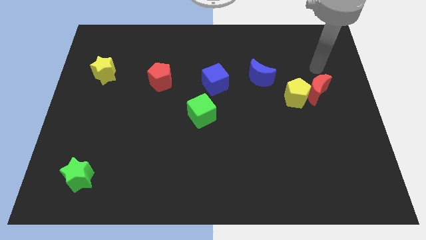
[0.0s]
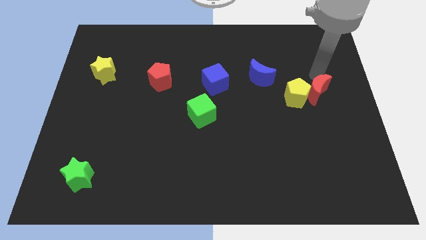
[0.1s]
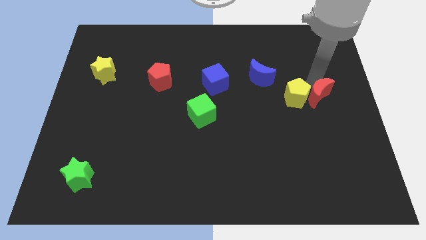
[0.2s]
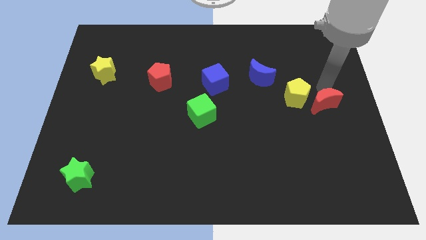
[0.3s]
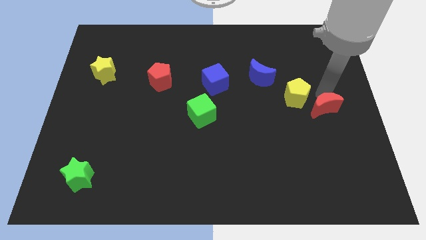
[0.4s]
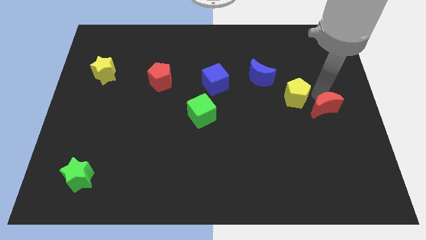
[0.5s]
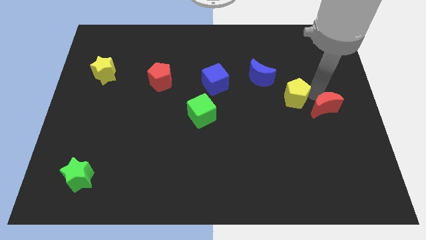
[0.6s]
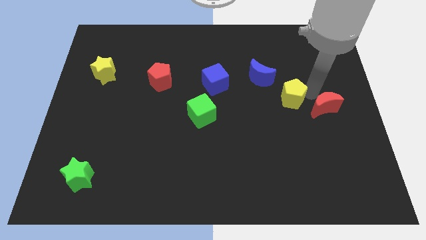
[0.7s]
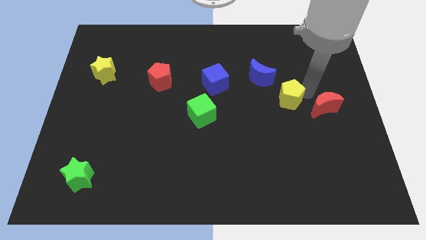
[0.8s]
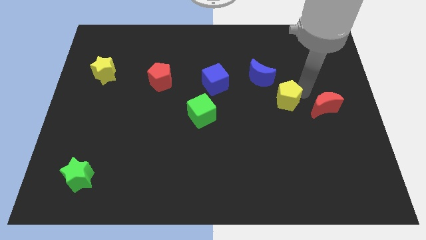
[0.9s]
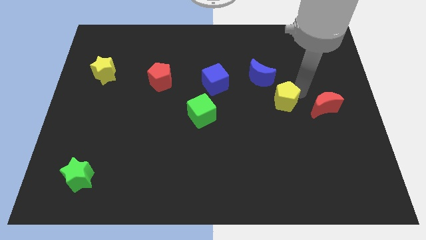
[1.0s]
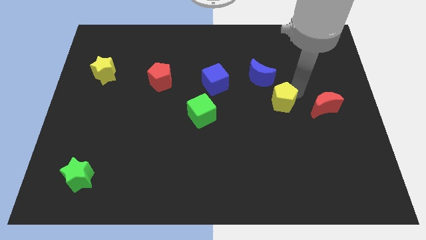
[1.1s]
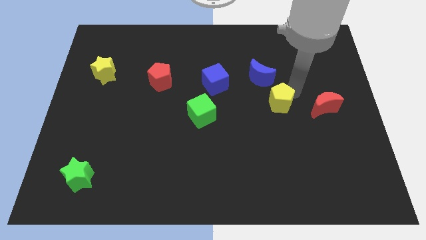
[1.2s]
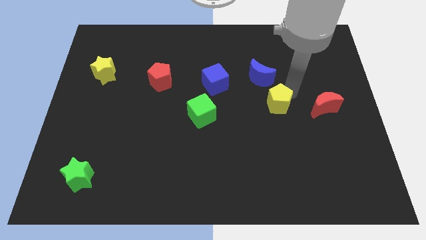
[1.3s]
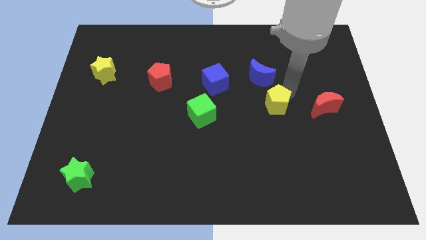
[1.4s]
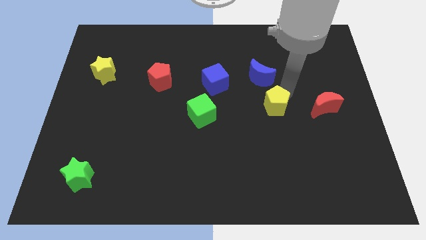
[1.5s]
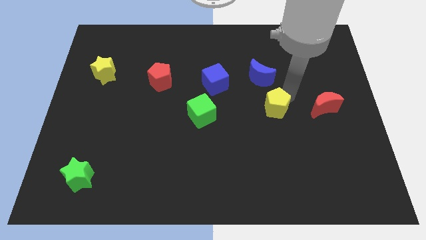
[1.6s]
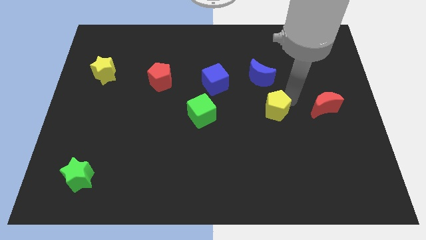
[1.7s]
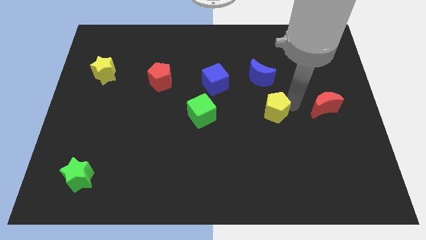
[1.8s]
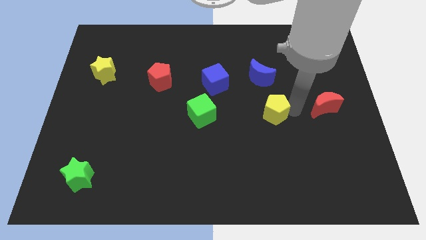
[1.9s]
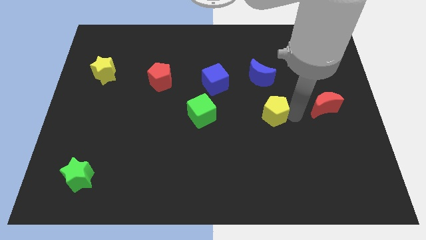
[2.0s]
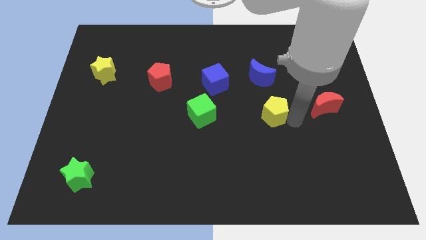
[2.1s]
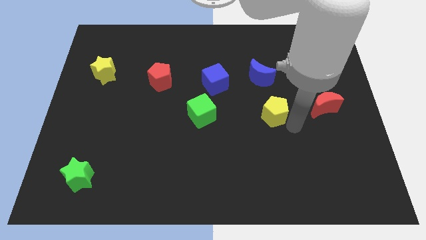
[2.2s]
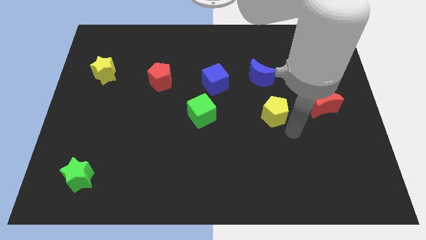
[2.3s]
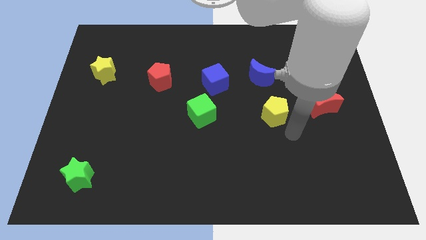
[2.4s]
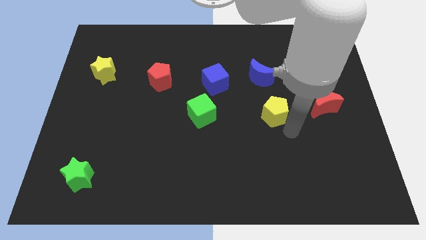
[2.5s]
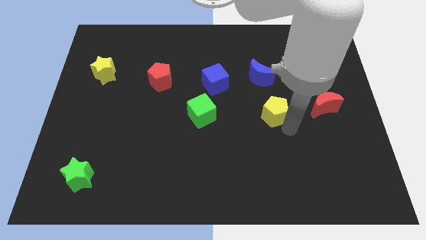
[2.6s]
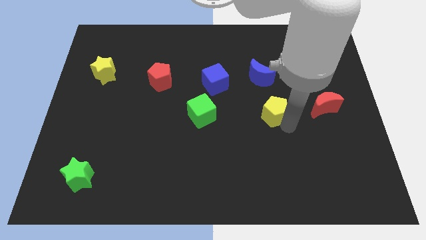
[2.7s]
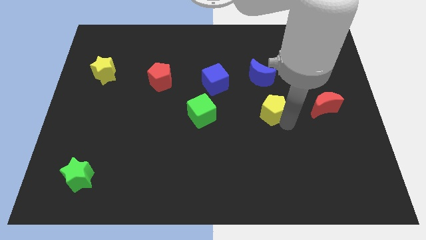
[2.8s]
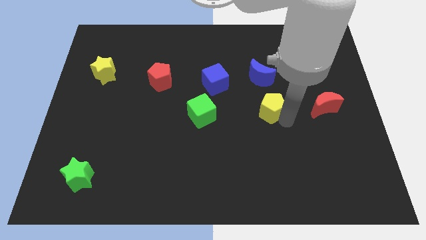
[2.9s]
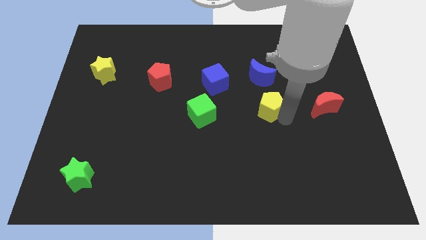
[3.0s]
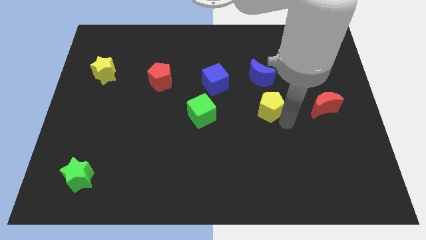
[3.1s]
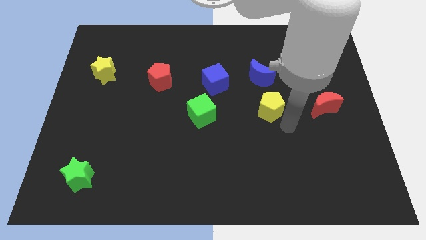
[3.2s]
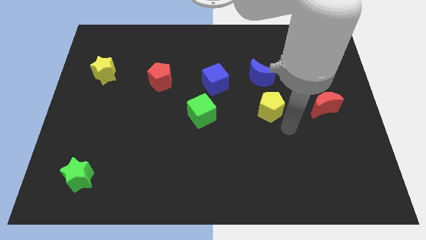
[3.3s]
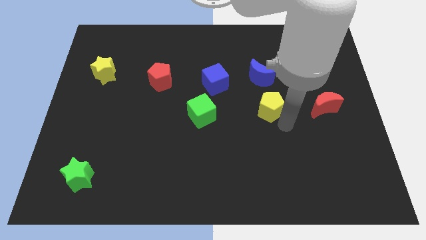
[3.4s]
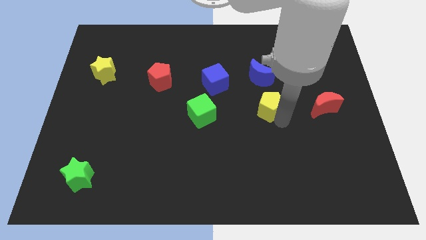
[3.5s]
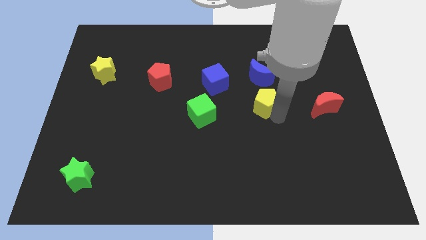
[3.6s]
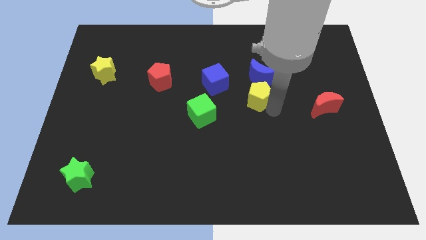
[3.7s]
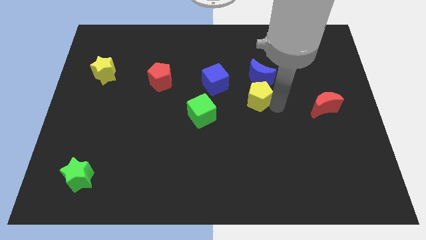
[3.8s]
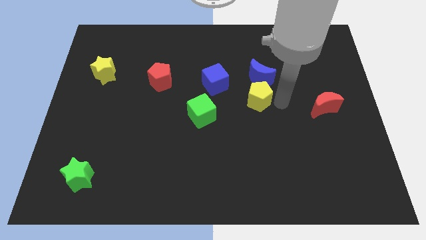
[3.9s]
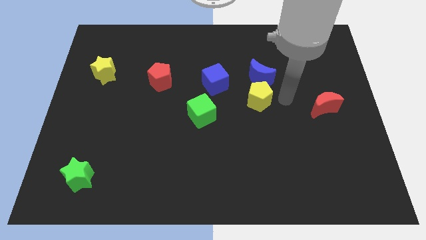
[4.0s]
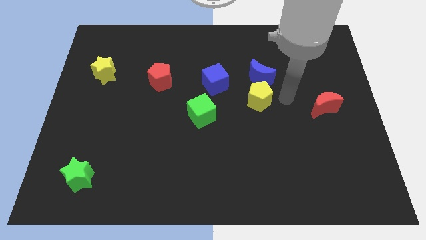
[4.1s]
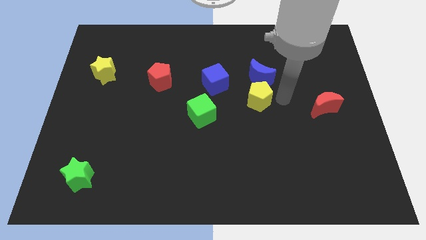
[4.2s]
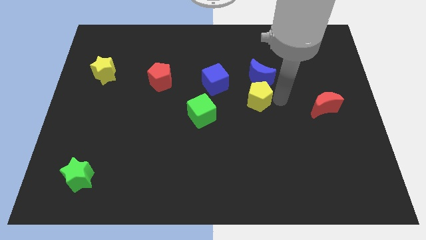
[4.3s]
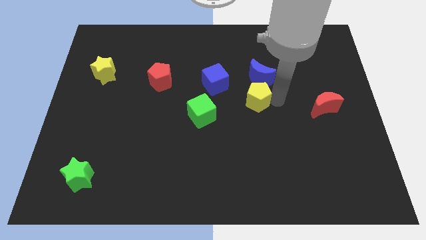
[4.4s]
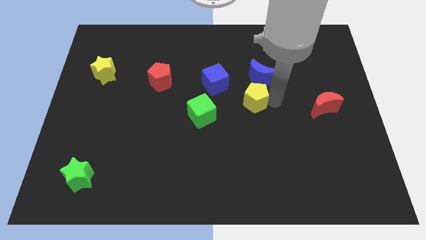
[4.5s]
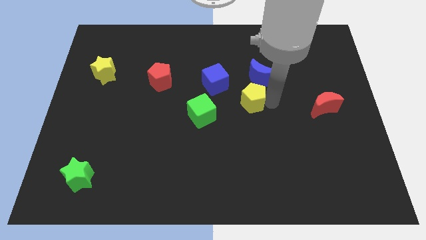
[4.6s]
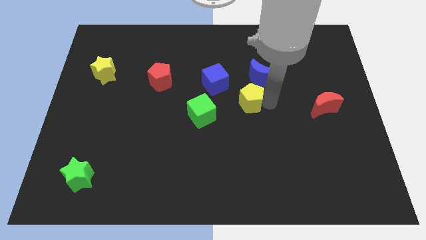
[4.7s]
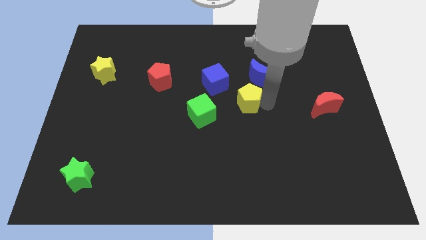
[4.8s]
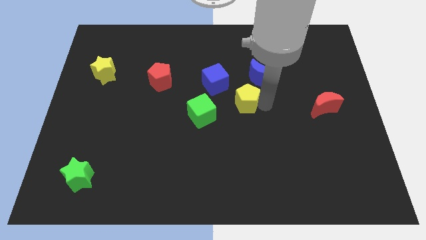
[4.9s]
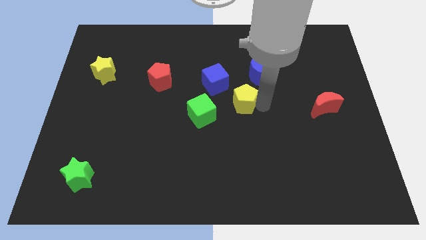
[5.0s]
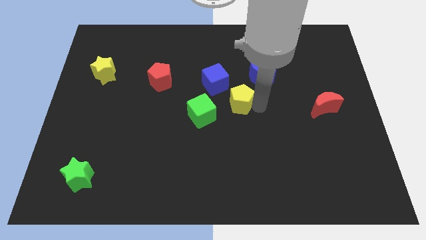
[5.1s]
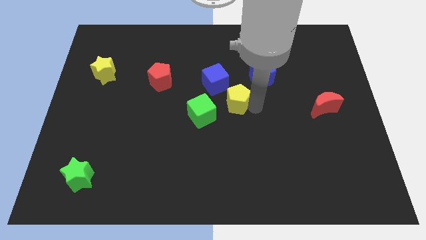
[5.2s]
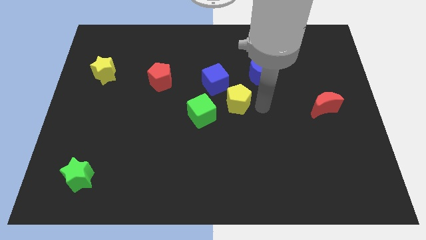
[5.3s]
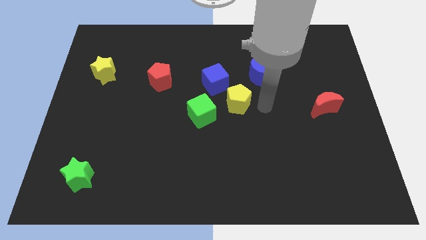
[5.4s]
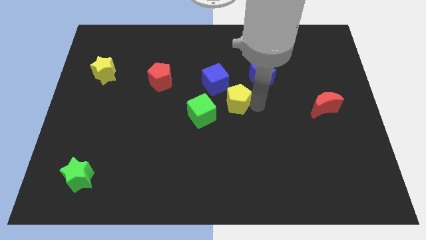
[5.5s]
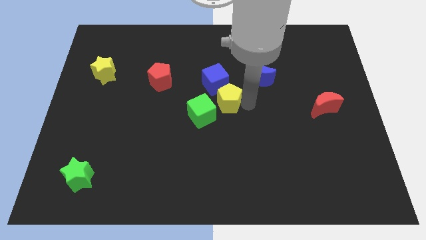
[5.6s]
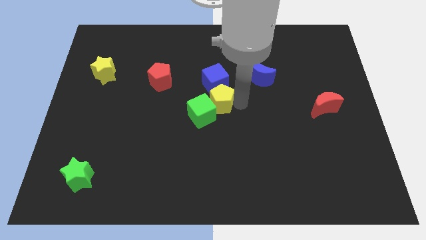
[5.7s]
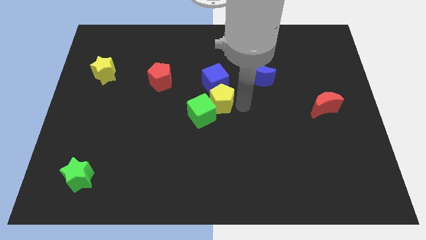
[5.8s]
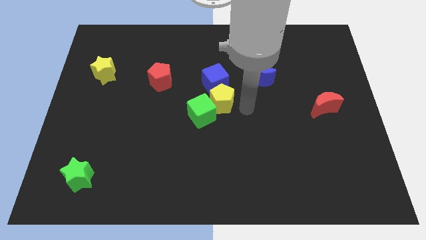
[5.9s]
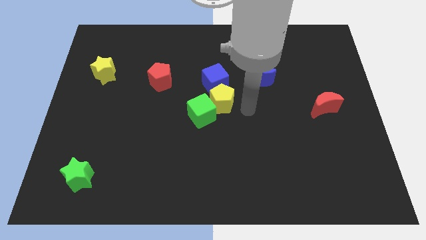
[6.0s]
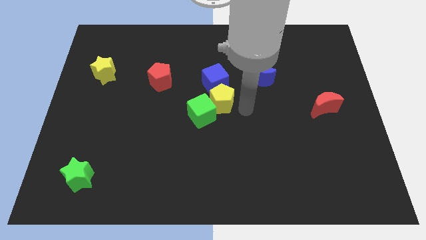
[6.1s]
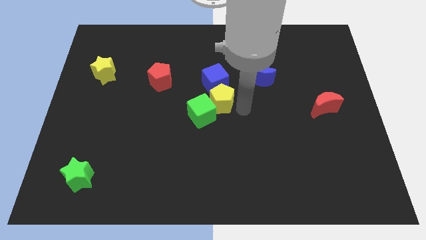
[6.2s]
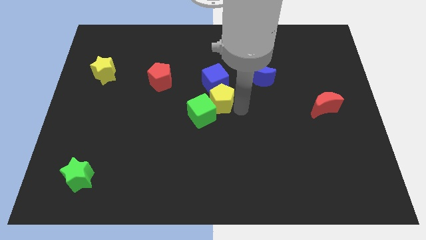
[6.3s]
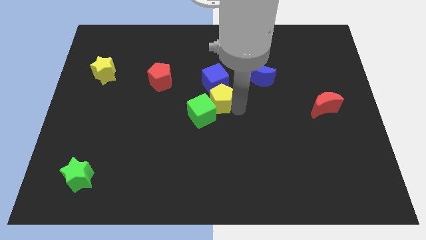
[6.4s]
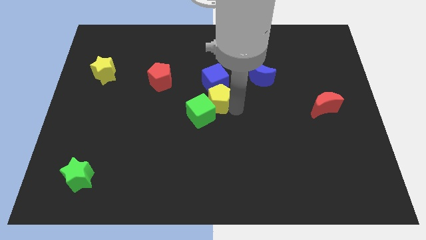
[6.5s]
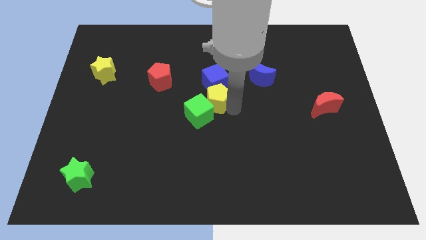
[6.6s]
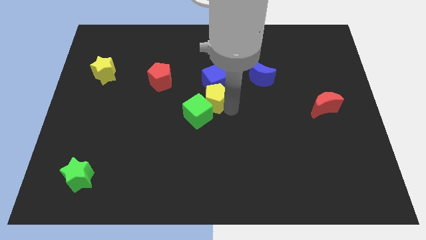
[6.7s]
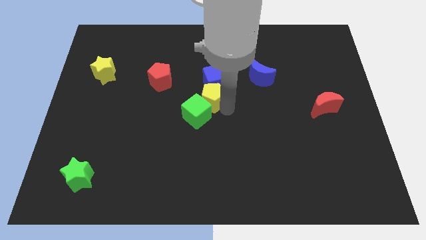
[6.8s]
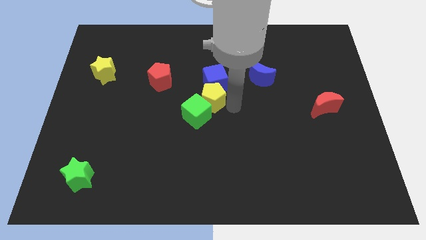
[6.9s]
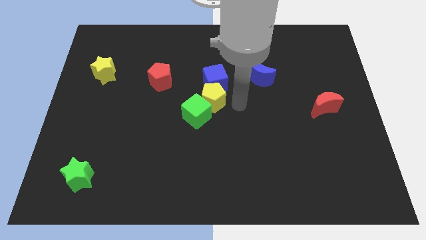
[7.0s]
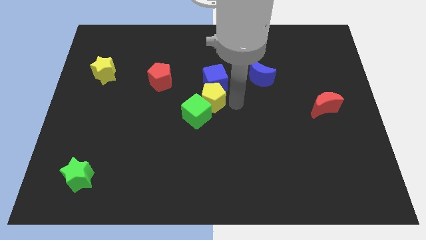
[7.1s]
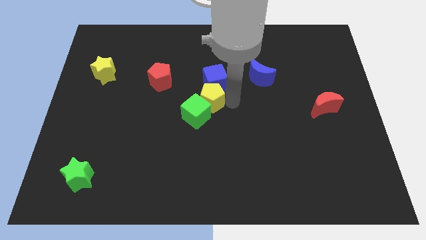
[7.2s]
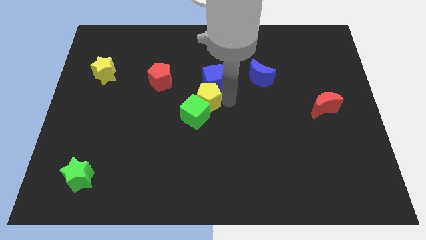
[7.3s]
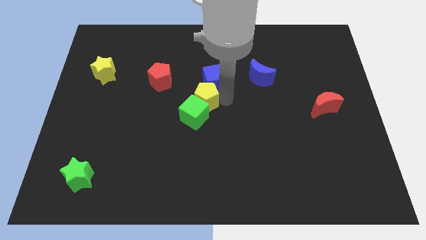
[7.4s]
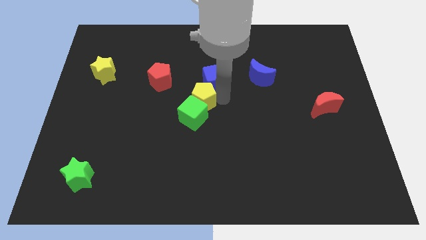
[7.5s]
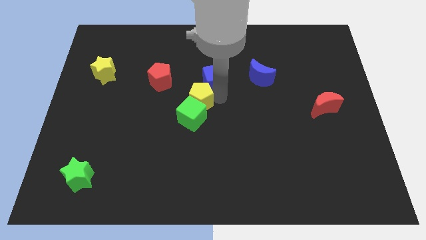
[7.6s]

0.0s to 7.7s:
move the yellow pentagon diagonally down and to the right of the red pentagon

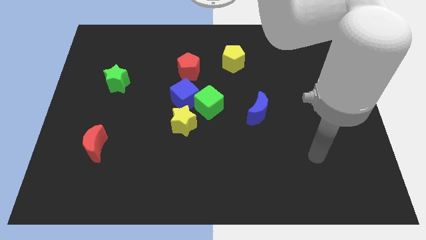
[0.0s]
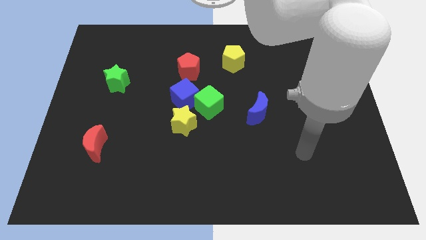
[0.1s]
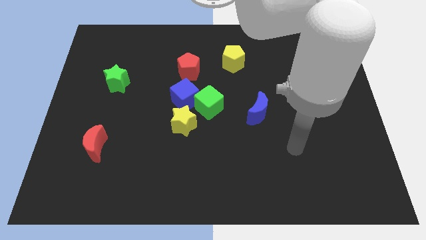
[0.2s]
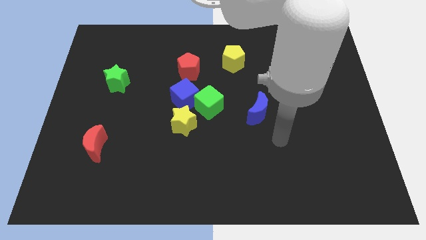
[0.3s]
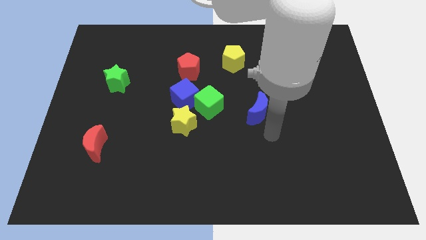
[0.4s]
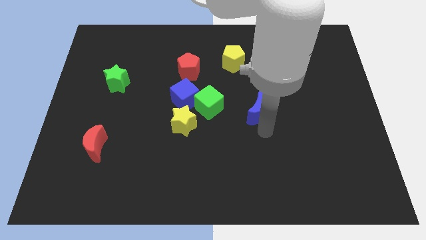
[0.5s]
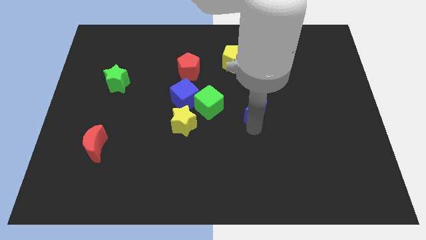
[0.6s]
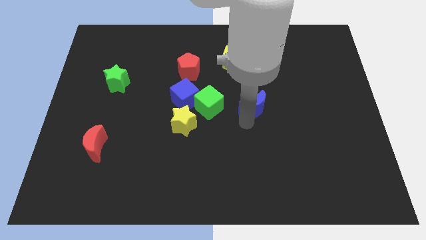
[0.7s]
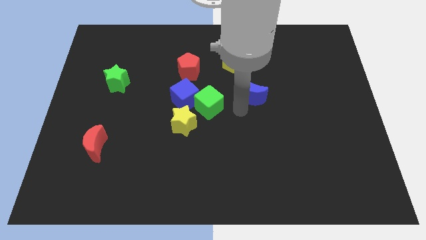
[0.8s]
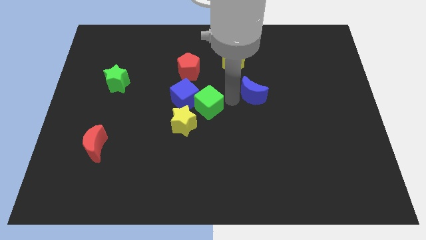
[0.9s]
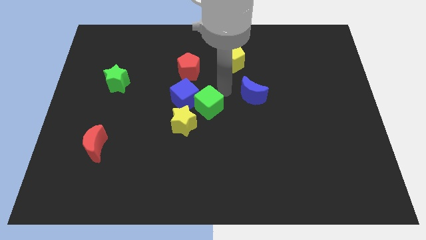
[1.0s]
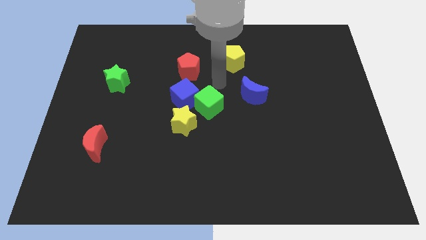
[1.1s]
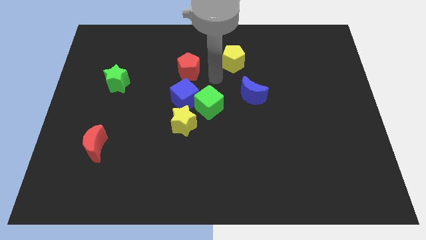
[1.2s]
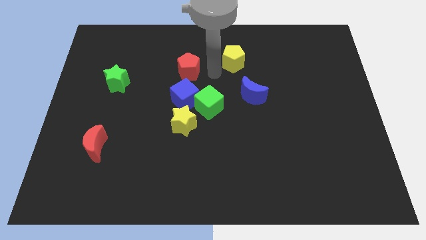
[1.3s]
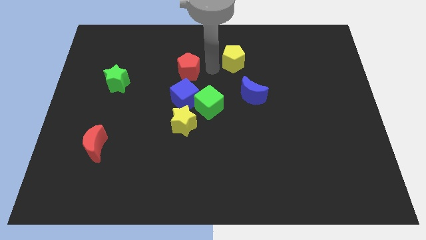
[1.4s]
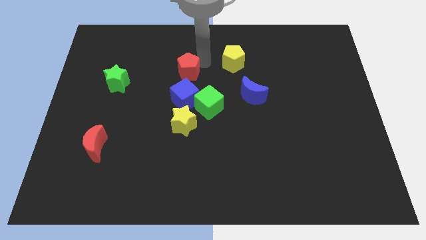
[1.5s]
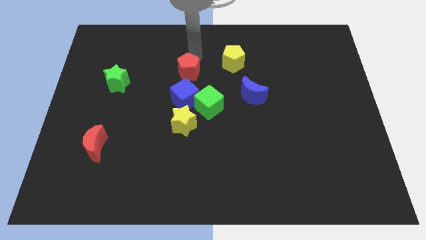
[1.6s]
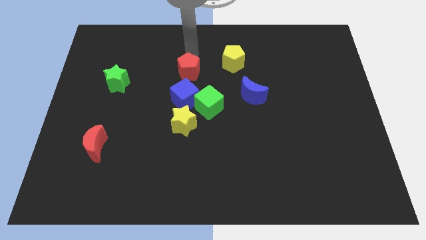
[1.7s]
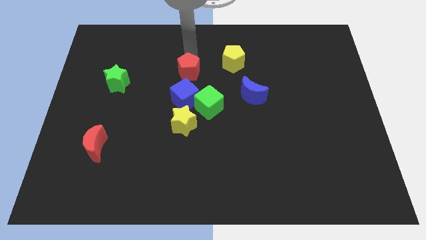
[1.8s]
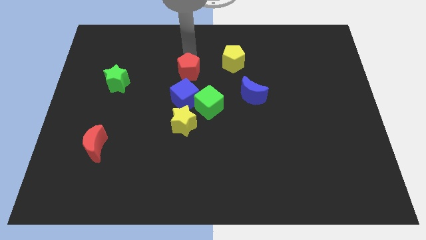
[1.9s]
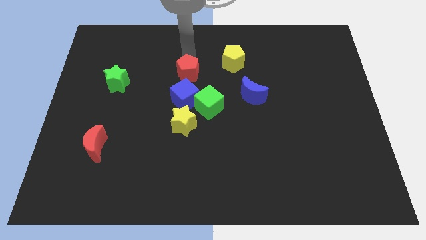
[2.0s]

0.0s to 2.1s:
slide the red pentagon to the top left side of the green cube
